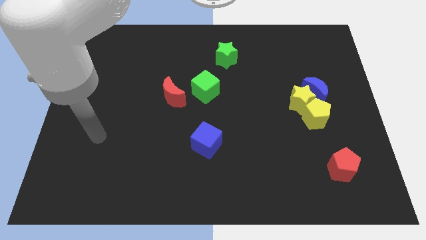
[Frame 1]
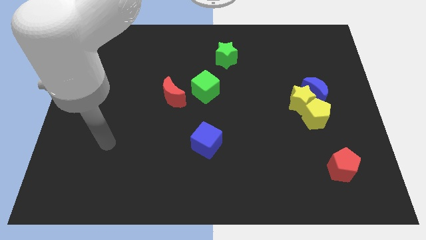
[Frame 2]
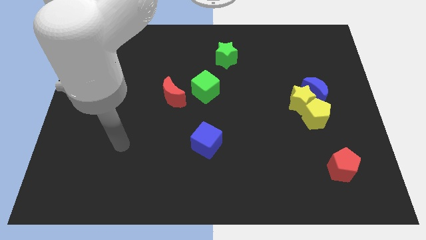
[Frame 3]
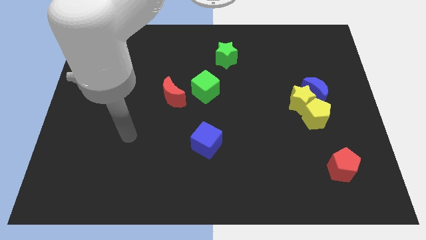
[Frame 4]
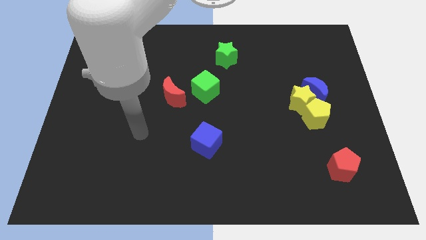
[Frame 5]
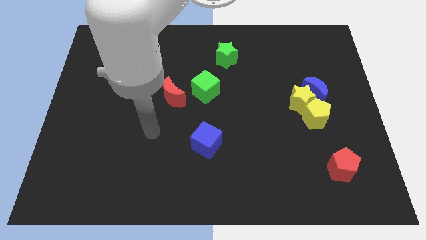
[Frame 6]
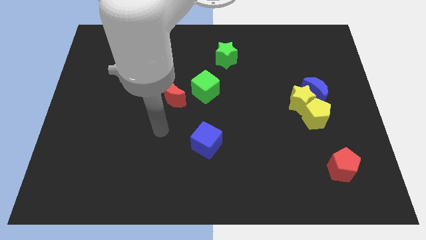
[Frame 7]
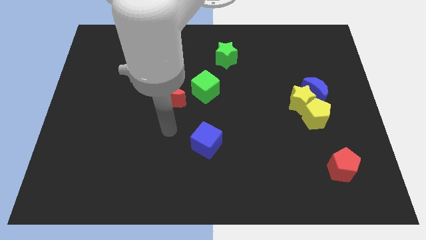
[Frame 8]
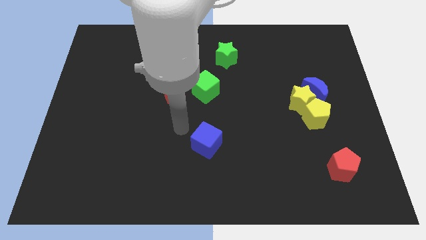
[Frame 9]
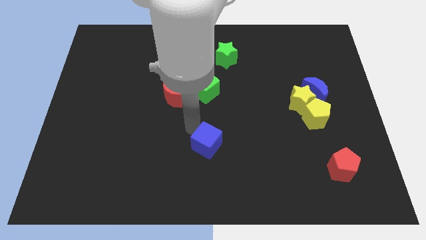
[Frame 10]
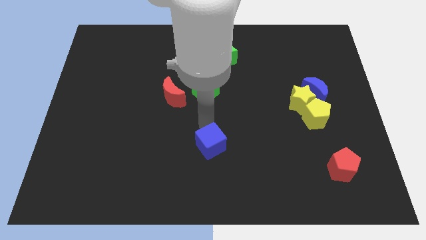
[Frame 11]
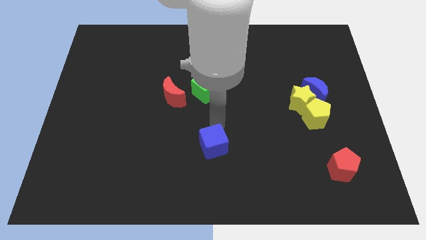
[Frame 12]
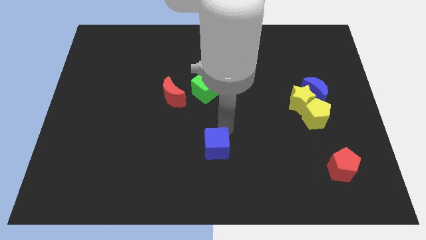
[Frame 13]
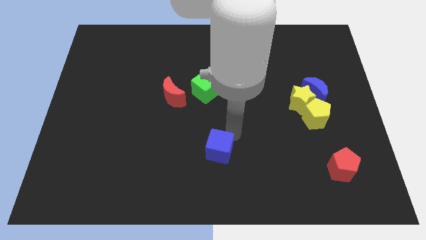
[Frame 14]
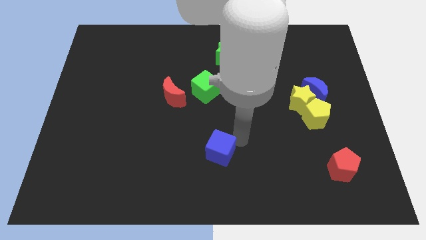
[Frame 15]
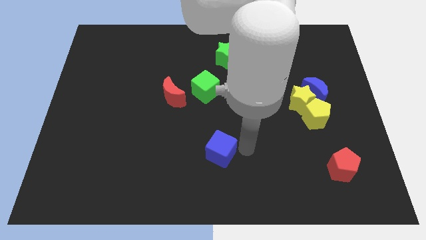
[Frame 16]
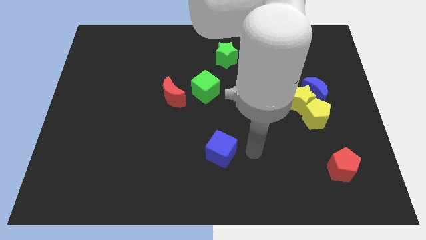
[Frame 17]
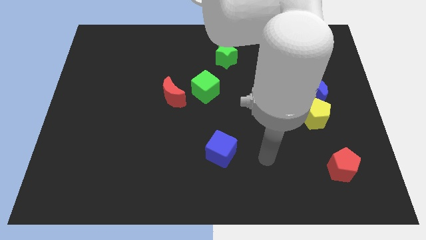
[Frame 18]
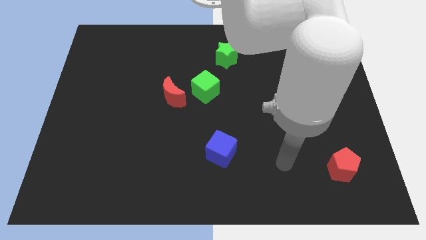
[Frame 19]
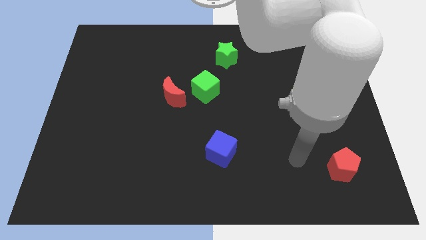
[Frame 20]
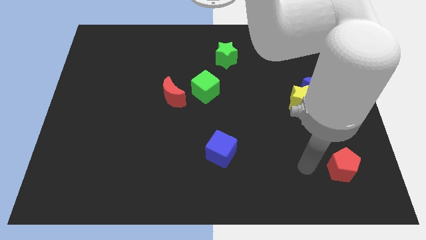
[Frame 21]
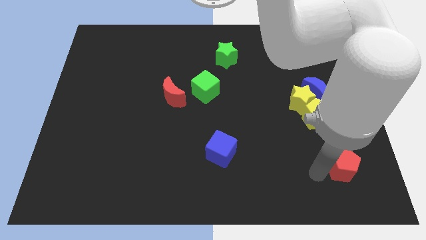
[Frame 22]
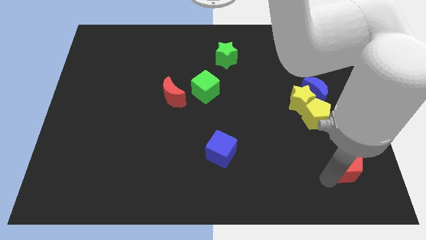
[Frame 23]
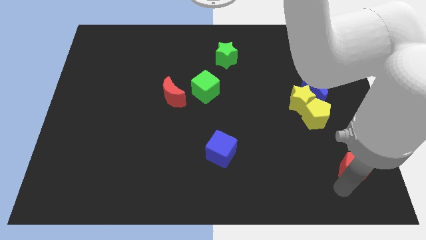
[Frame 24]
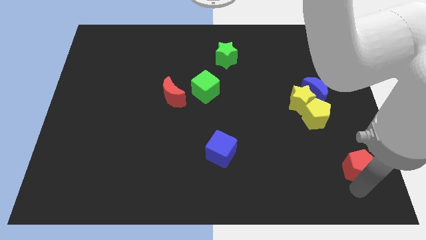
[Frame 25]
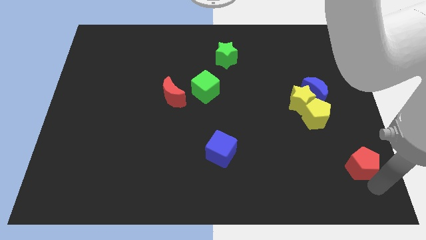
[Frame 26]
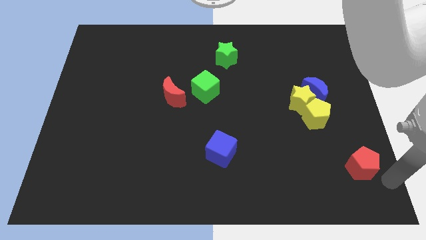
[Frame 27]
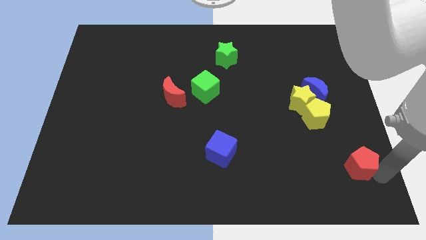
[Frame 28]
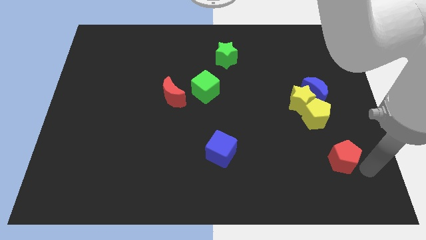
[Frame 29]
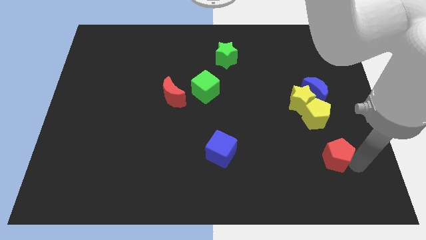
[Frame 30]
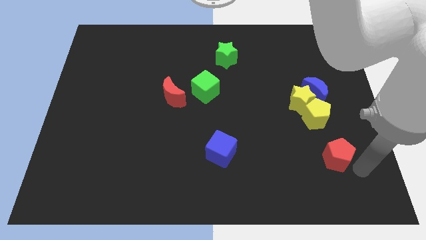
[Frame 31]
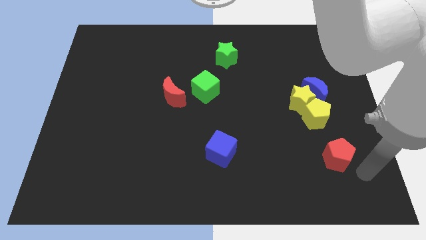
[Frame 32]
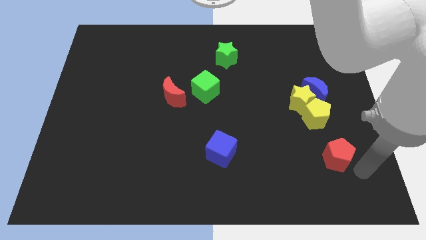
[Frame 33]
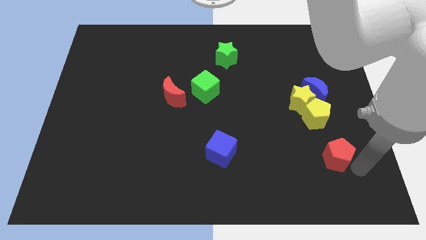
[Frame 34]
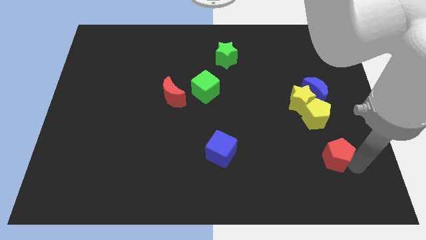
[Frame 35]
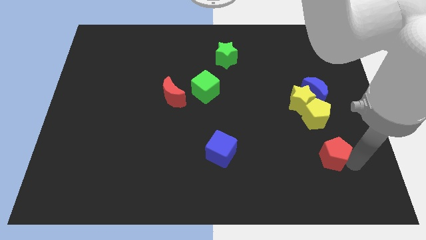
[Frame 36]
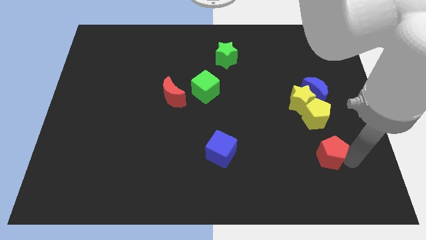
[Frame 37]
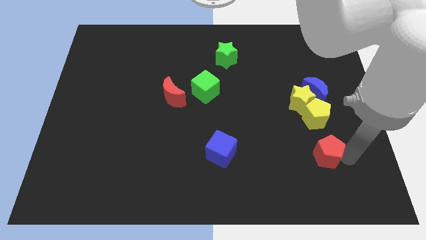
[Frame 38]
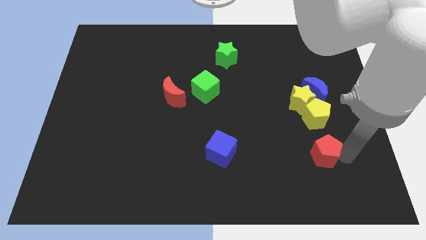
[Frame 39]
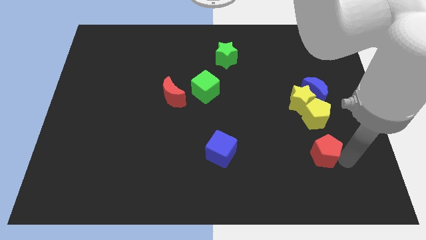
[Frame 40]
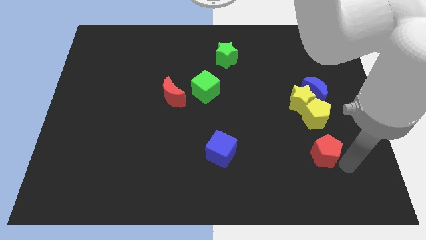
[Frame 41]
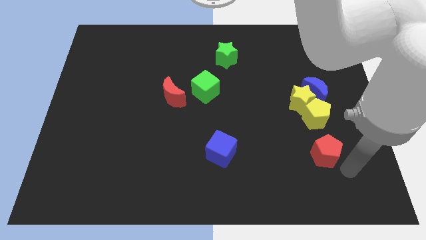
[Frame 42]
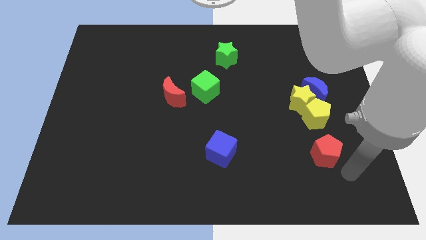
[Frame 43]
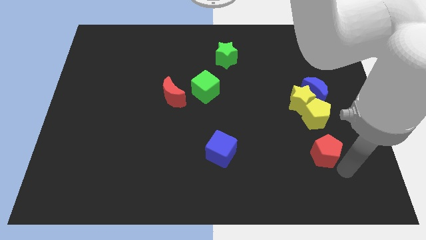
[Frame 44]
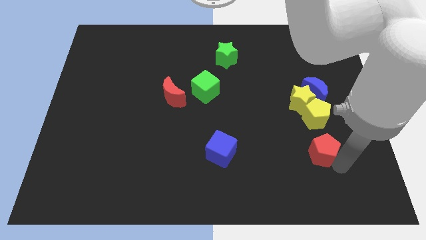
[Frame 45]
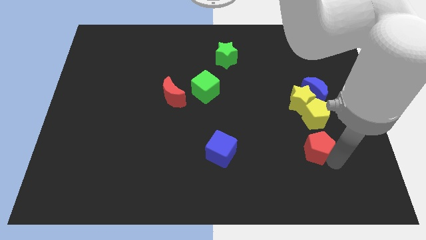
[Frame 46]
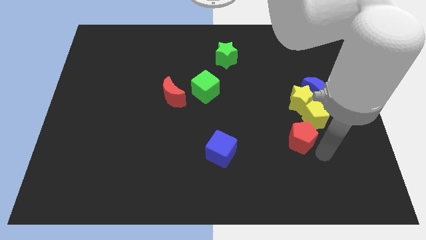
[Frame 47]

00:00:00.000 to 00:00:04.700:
push the red pentagon somewhat upwards and to the left diagonally

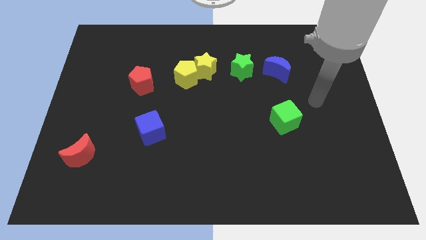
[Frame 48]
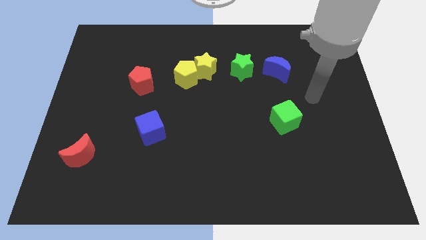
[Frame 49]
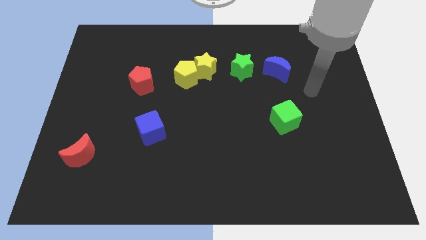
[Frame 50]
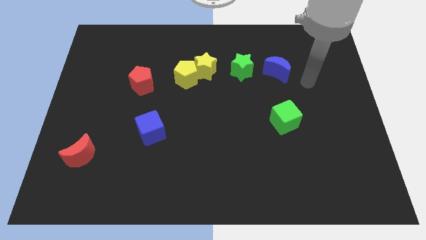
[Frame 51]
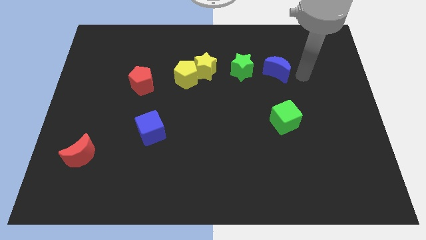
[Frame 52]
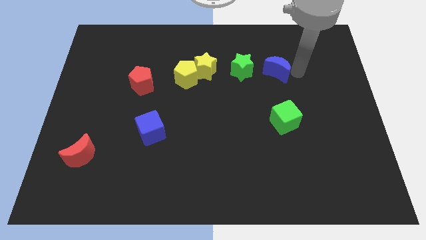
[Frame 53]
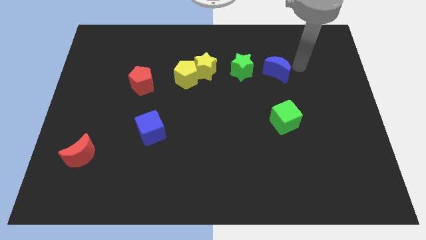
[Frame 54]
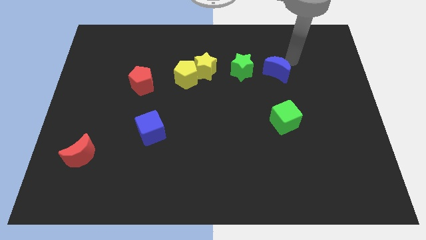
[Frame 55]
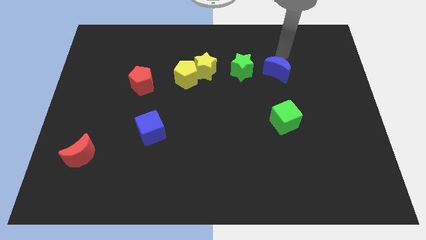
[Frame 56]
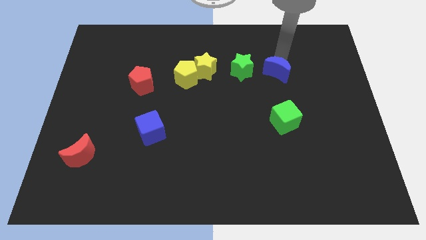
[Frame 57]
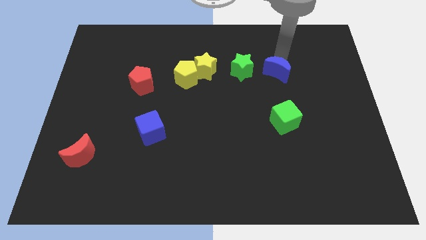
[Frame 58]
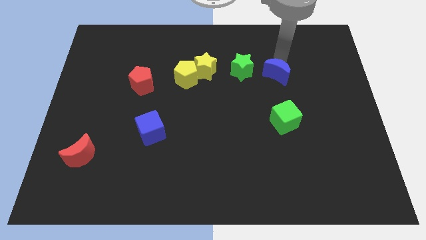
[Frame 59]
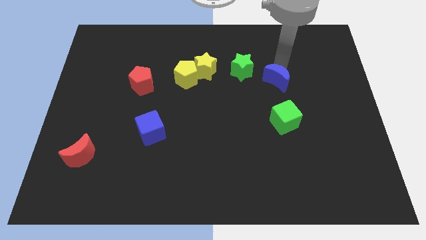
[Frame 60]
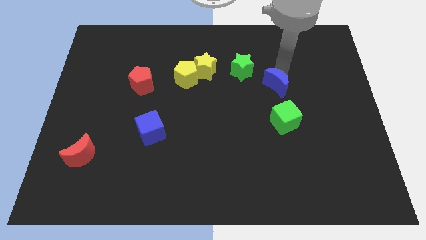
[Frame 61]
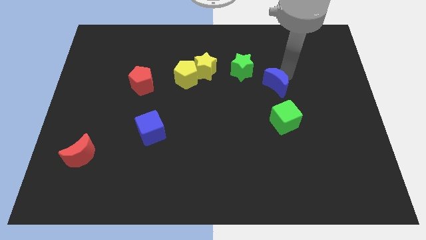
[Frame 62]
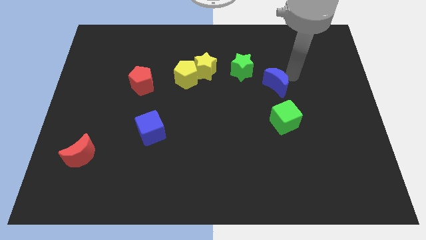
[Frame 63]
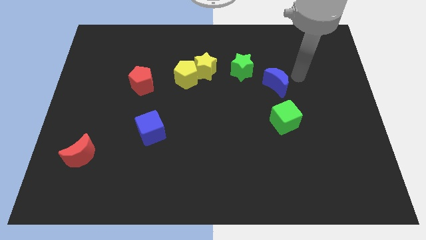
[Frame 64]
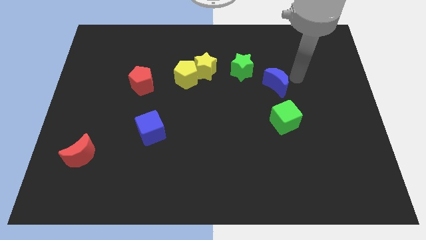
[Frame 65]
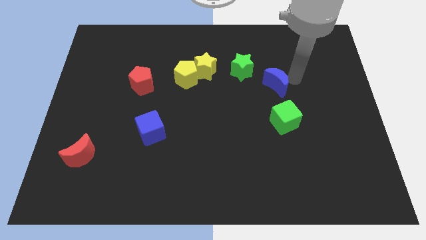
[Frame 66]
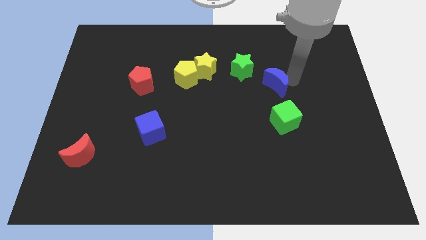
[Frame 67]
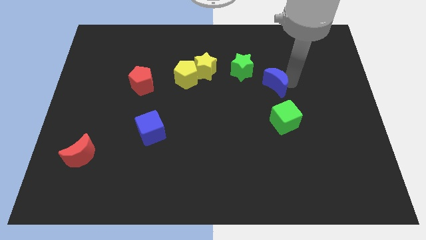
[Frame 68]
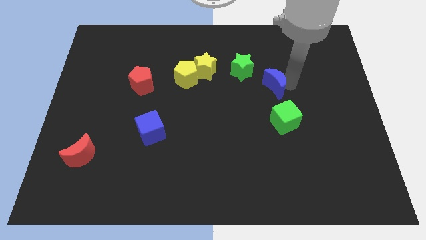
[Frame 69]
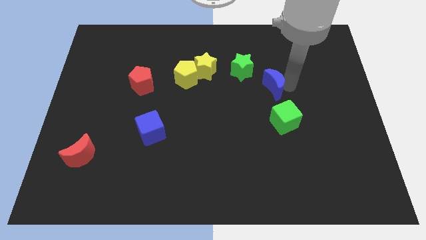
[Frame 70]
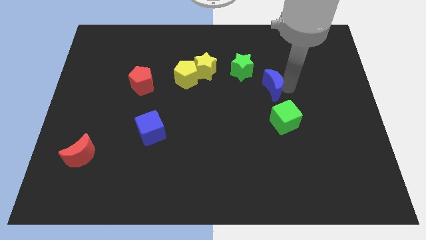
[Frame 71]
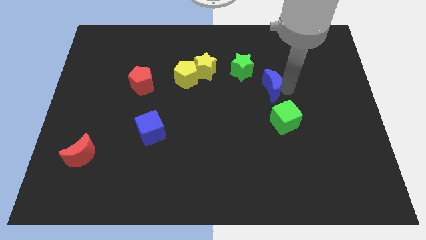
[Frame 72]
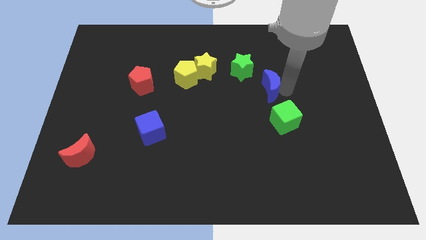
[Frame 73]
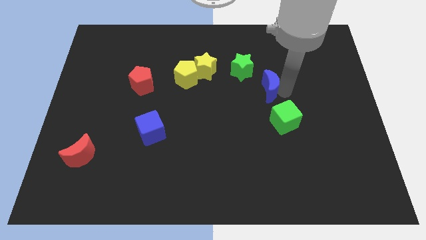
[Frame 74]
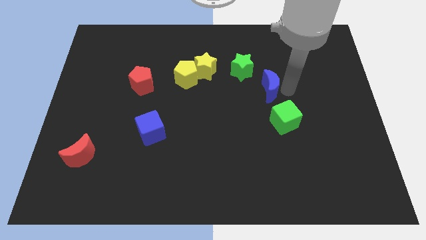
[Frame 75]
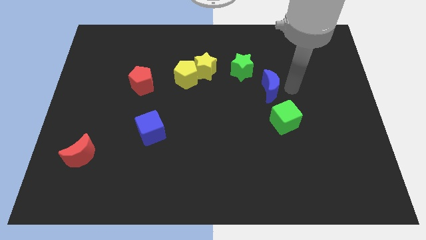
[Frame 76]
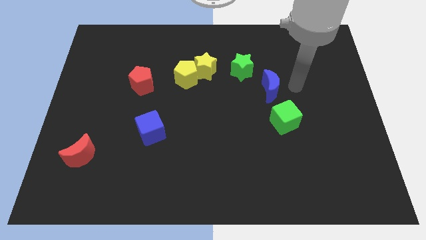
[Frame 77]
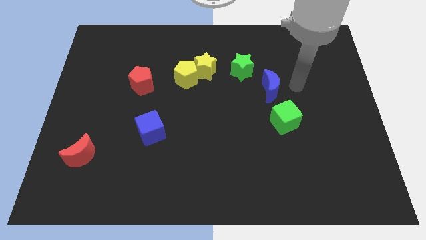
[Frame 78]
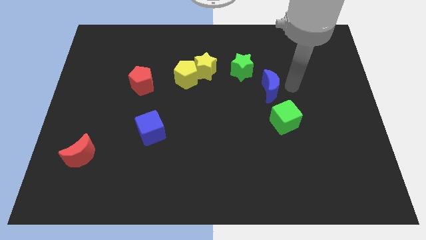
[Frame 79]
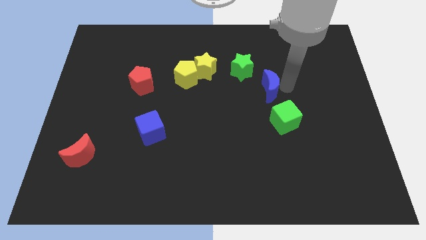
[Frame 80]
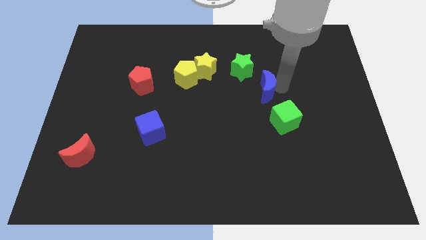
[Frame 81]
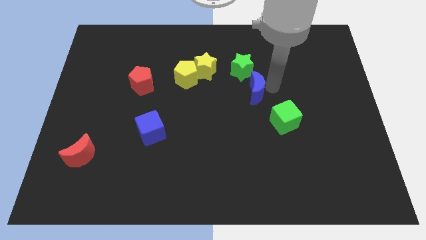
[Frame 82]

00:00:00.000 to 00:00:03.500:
move the blue moon slightly downwards and to the left
